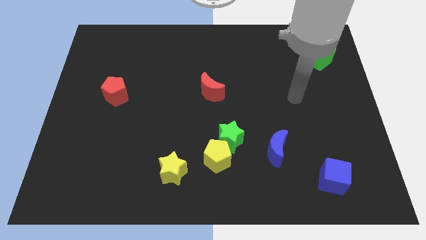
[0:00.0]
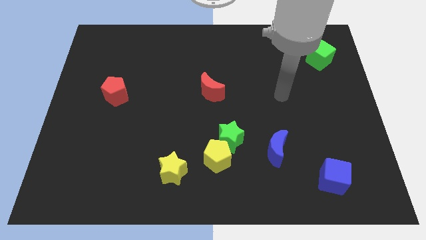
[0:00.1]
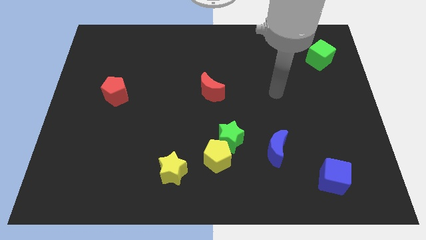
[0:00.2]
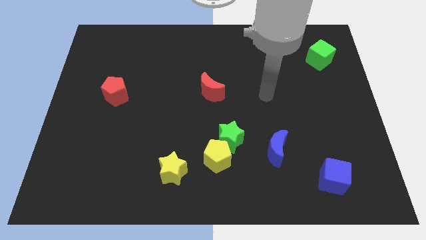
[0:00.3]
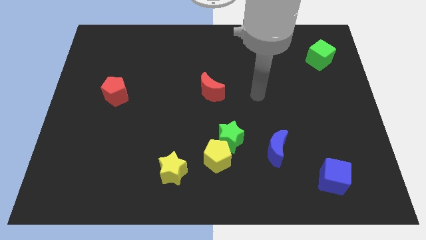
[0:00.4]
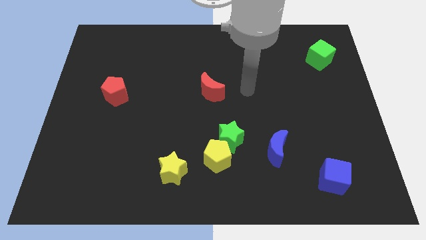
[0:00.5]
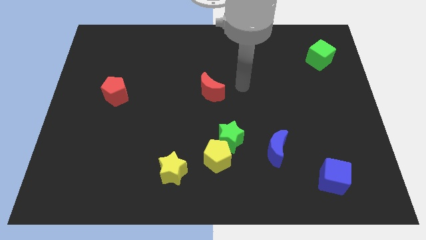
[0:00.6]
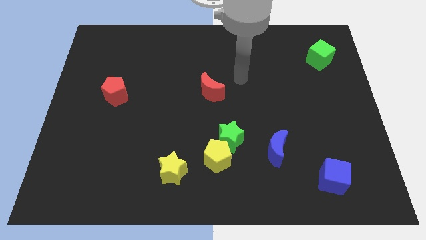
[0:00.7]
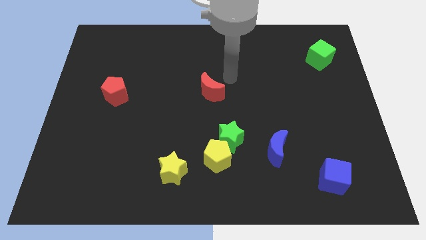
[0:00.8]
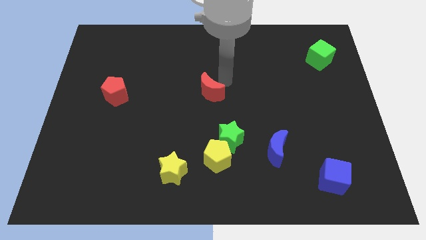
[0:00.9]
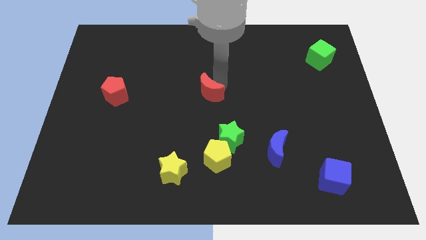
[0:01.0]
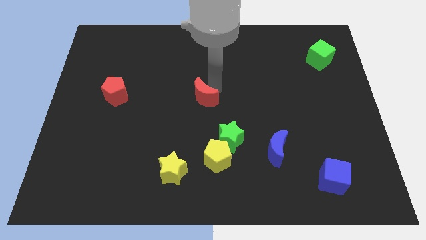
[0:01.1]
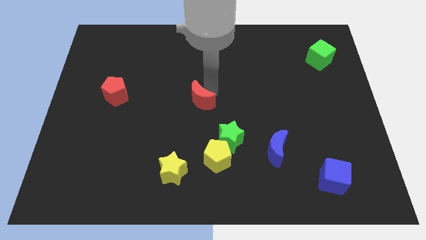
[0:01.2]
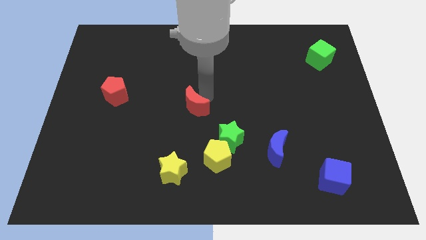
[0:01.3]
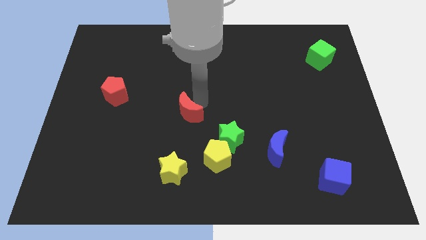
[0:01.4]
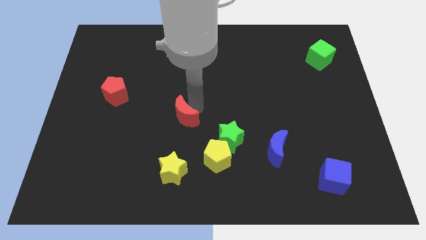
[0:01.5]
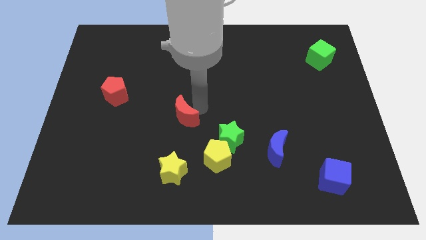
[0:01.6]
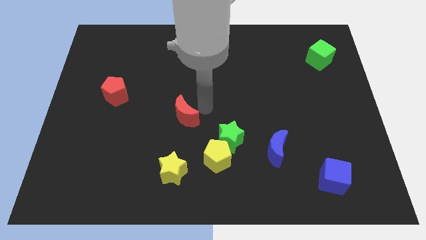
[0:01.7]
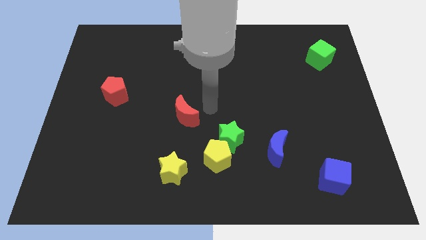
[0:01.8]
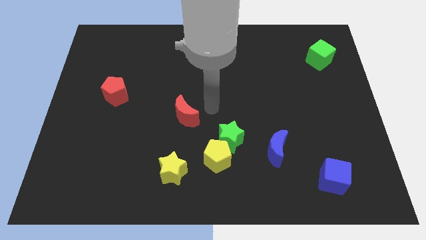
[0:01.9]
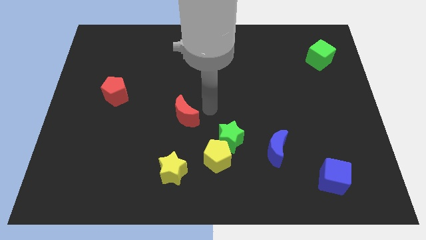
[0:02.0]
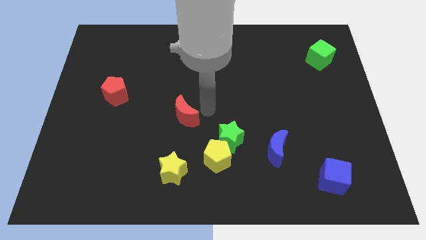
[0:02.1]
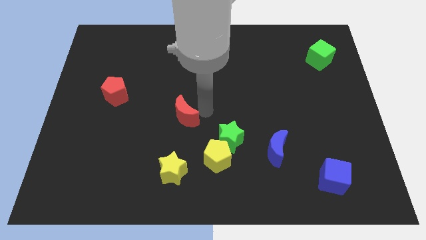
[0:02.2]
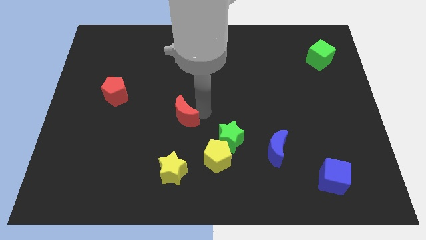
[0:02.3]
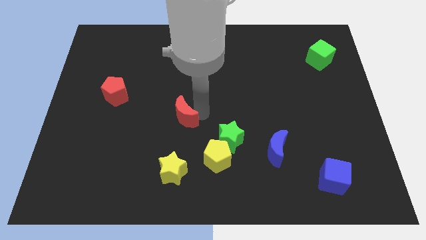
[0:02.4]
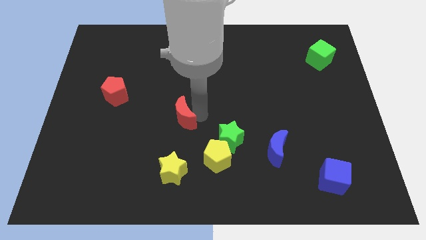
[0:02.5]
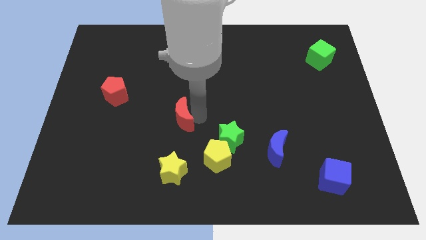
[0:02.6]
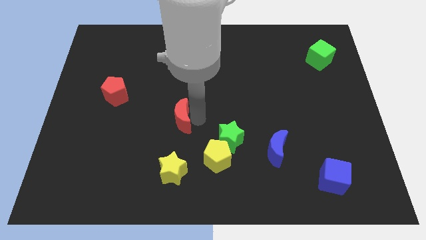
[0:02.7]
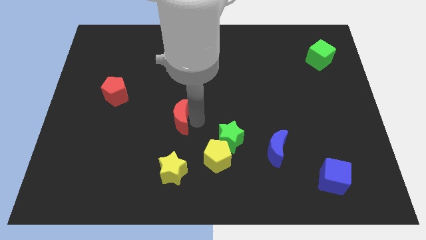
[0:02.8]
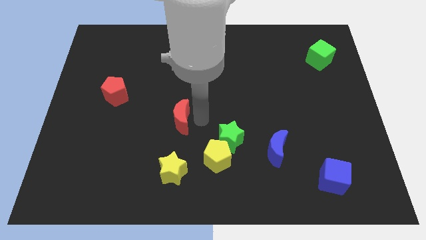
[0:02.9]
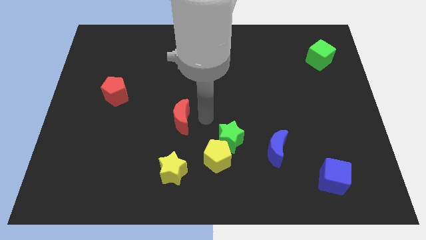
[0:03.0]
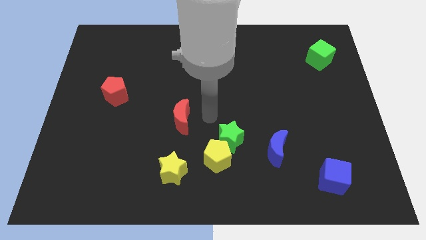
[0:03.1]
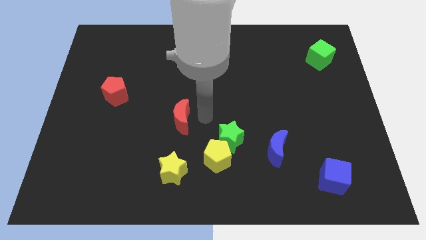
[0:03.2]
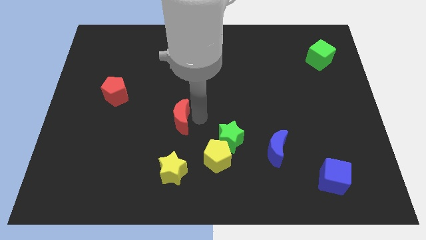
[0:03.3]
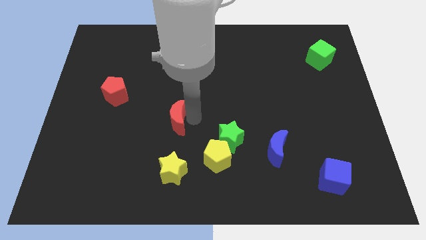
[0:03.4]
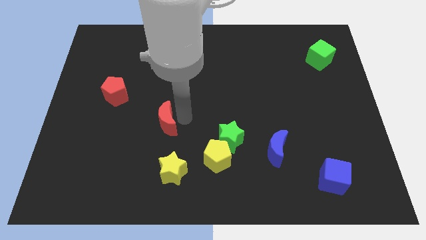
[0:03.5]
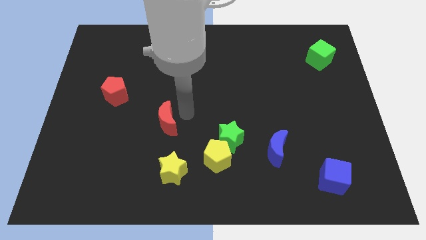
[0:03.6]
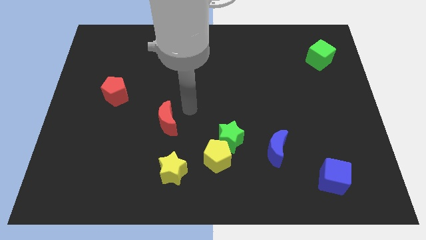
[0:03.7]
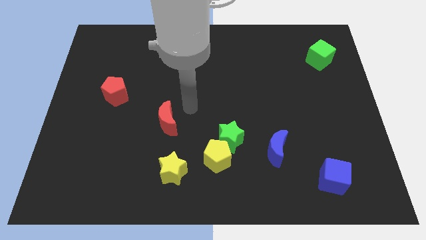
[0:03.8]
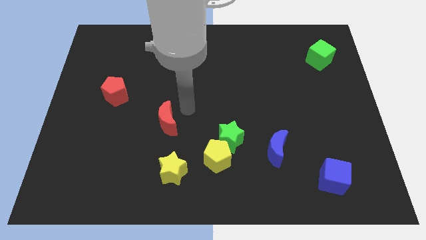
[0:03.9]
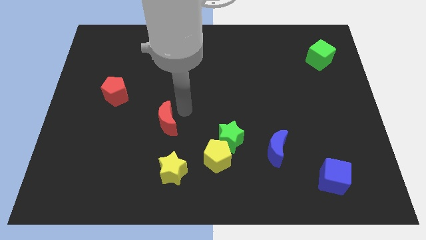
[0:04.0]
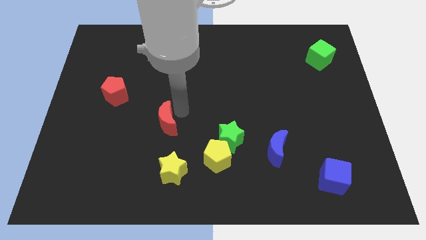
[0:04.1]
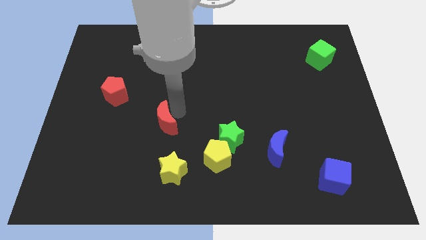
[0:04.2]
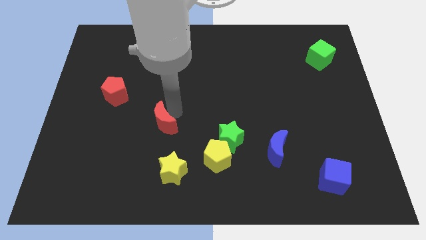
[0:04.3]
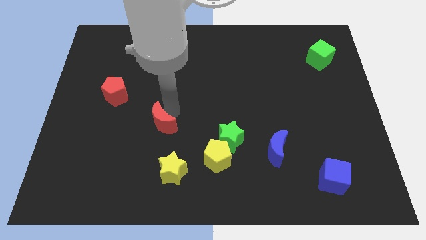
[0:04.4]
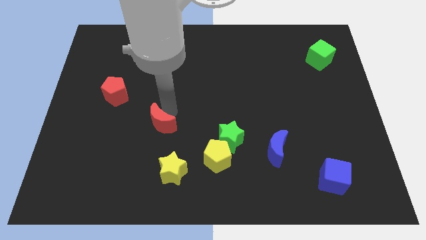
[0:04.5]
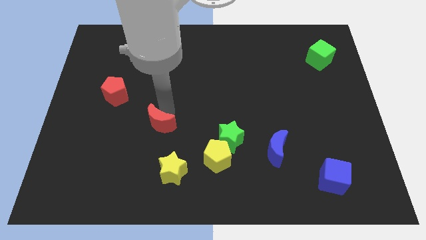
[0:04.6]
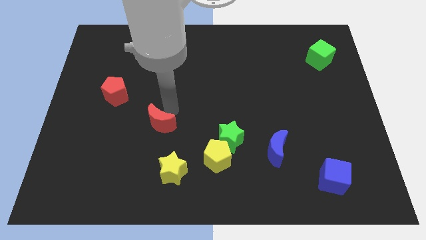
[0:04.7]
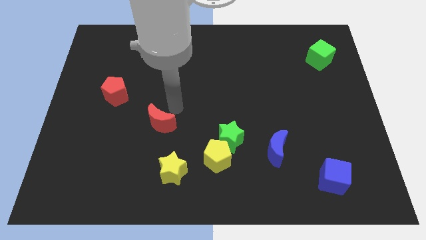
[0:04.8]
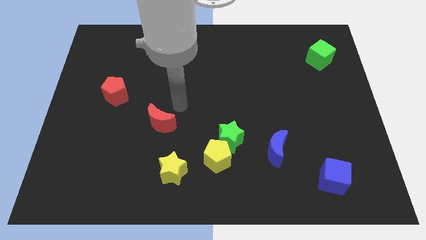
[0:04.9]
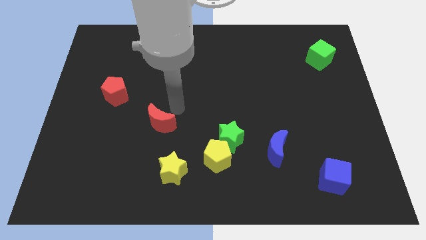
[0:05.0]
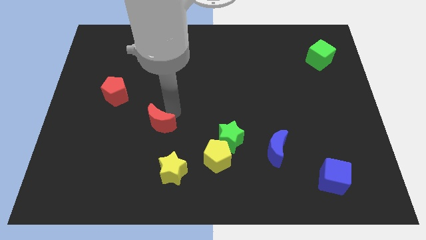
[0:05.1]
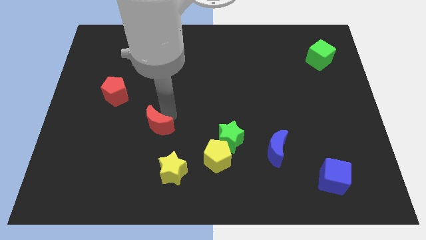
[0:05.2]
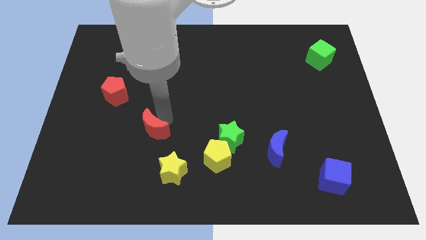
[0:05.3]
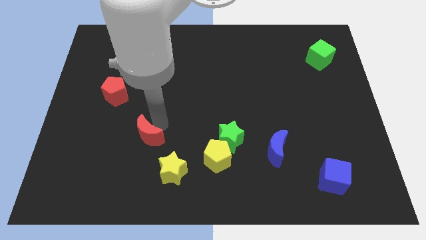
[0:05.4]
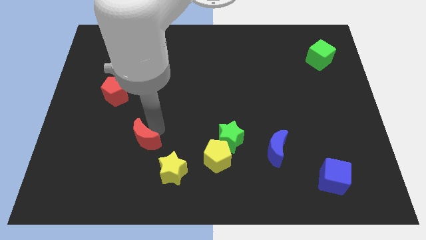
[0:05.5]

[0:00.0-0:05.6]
push the red moon down and left

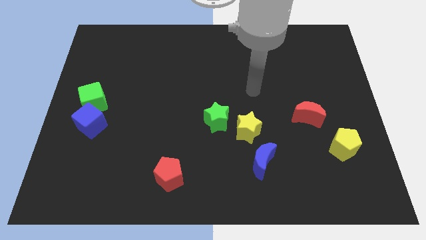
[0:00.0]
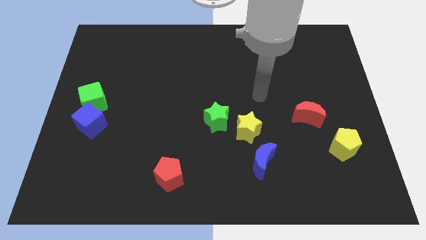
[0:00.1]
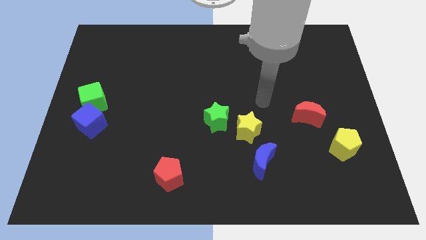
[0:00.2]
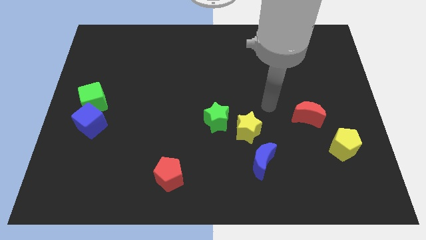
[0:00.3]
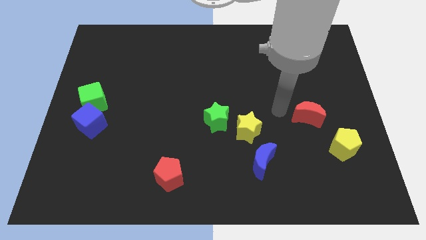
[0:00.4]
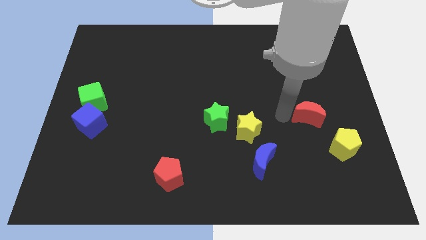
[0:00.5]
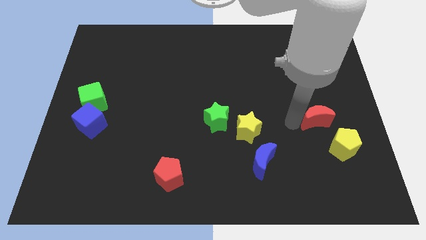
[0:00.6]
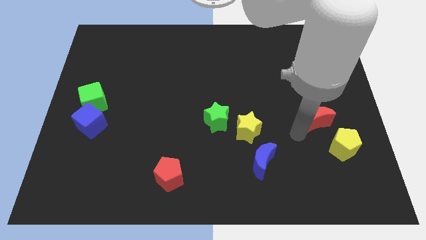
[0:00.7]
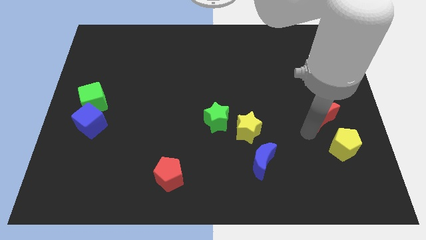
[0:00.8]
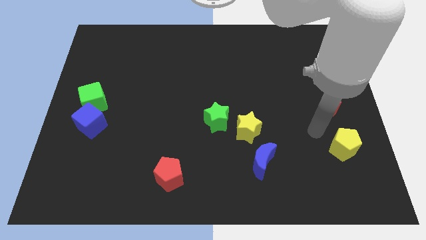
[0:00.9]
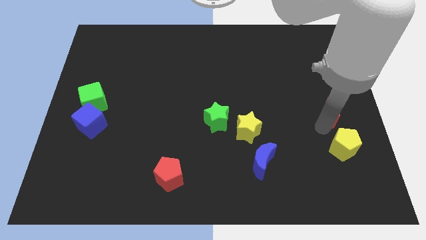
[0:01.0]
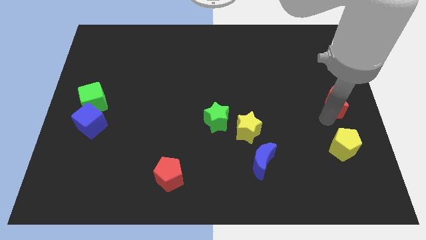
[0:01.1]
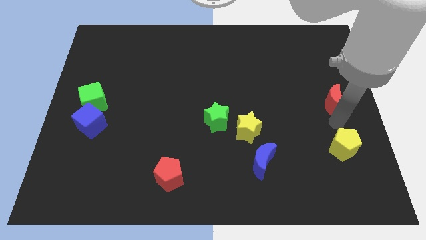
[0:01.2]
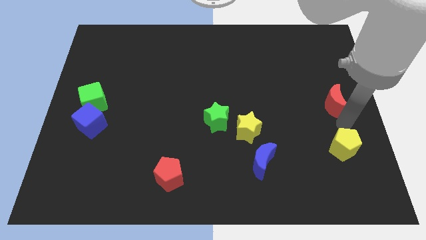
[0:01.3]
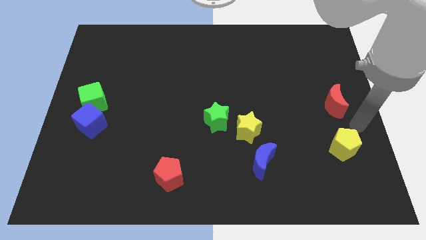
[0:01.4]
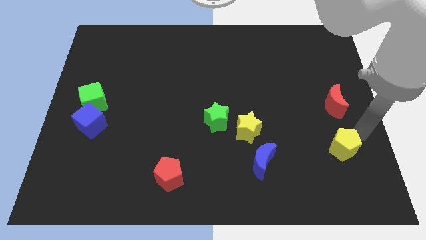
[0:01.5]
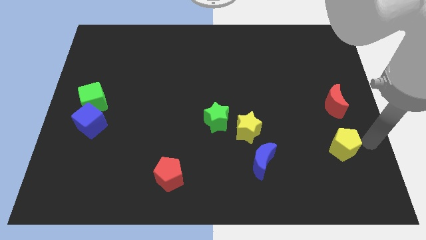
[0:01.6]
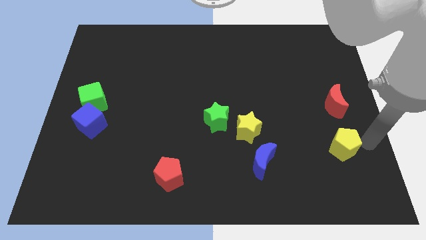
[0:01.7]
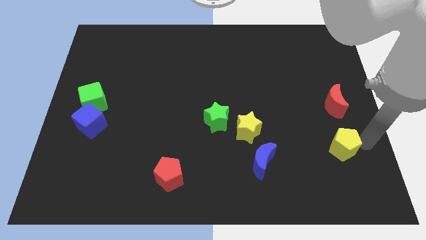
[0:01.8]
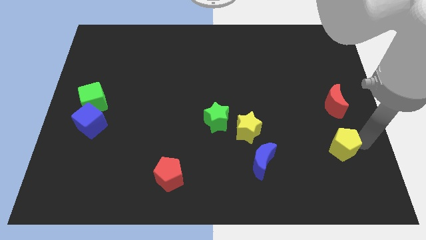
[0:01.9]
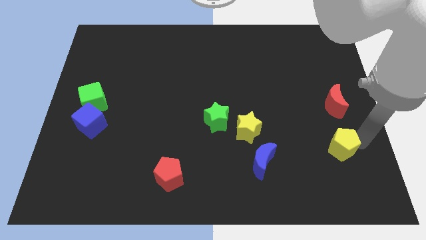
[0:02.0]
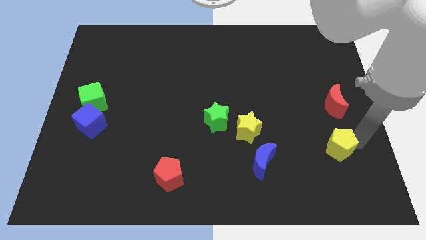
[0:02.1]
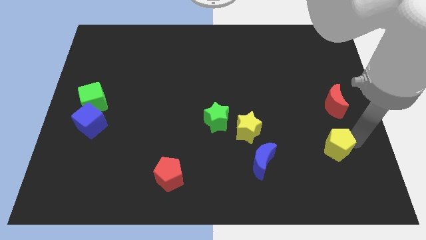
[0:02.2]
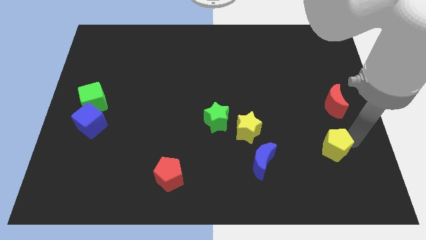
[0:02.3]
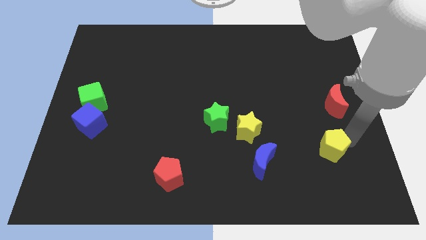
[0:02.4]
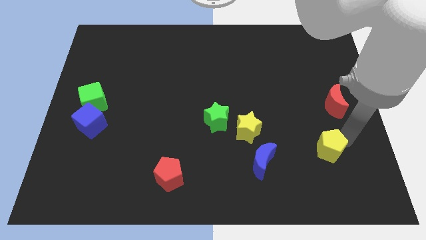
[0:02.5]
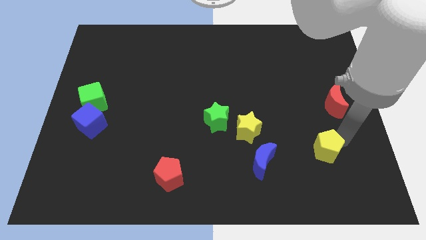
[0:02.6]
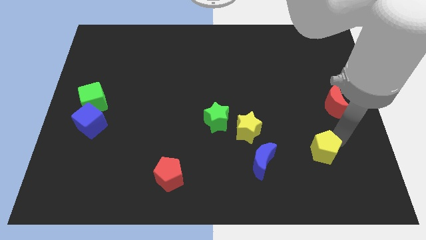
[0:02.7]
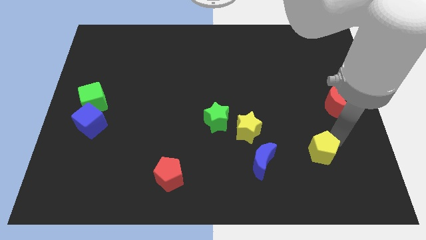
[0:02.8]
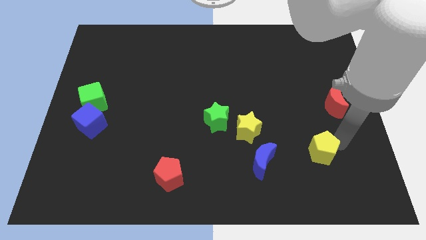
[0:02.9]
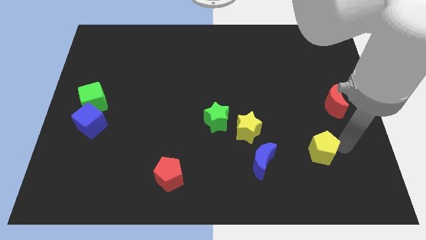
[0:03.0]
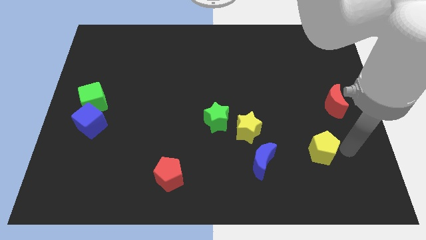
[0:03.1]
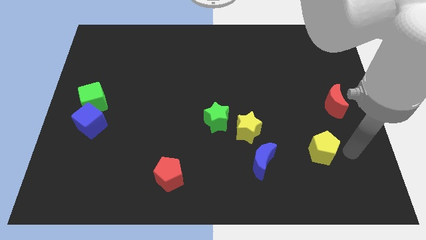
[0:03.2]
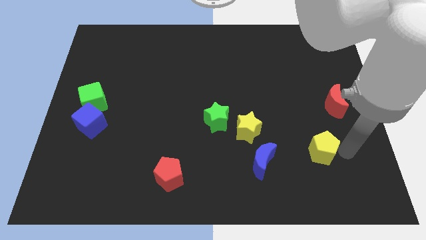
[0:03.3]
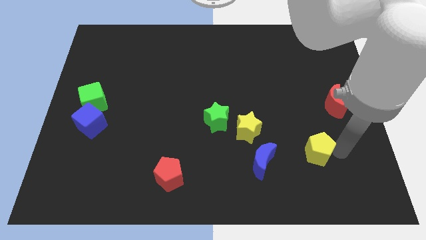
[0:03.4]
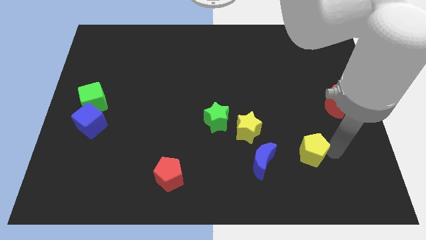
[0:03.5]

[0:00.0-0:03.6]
slightly slide the yellow pentagon left
